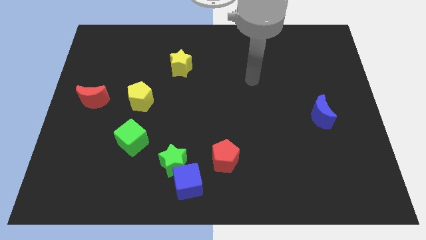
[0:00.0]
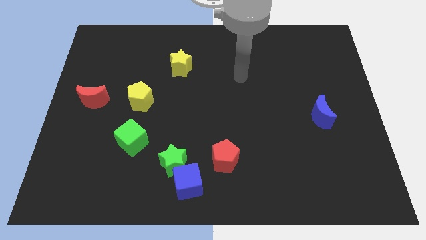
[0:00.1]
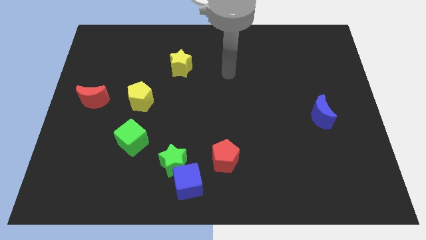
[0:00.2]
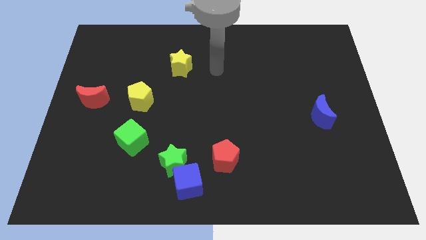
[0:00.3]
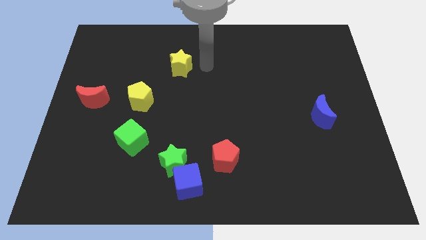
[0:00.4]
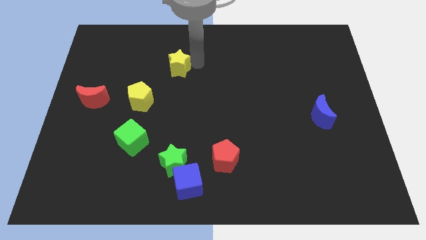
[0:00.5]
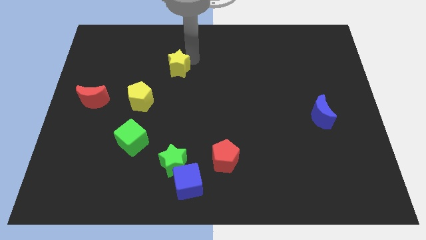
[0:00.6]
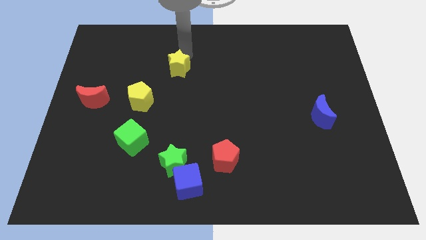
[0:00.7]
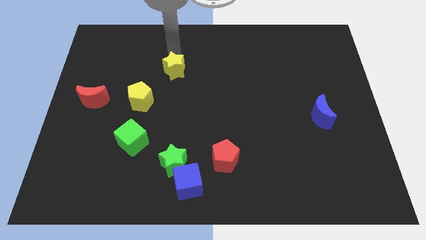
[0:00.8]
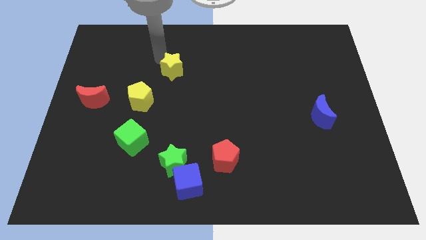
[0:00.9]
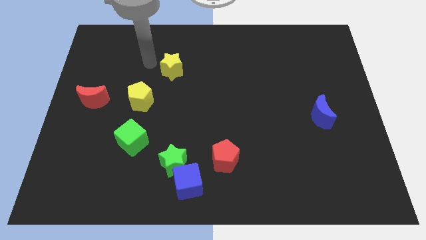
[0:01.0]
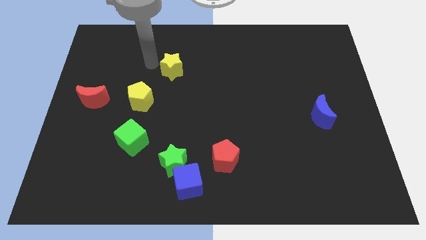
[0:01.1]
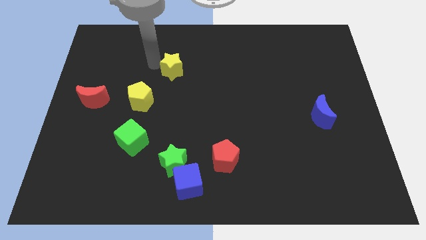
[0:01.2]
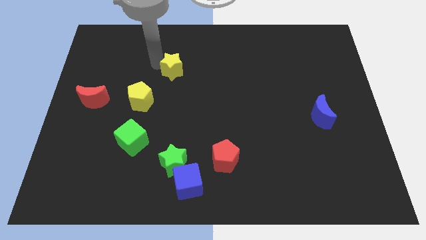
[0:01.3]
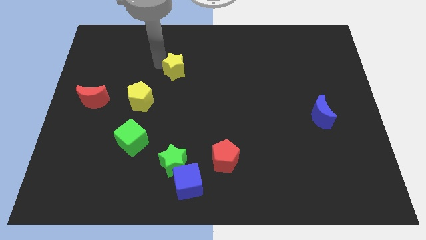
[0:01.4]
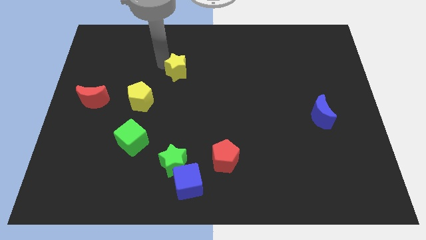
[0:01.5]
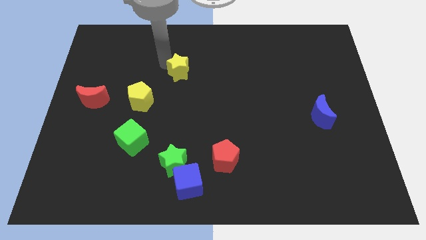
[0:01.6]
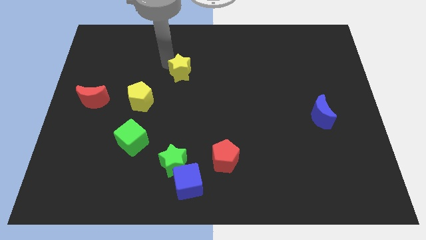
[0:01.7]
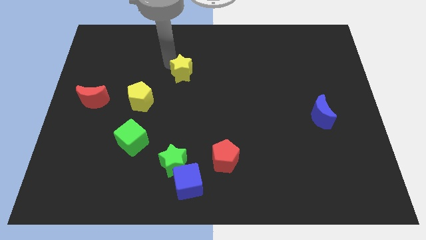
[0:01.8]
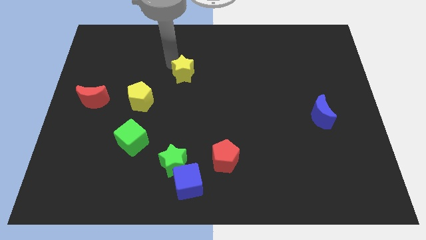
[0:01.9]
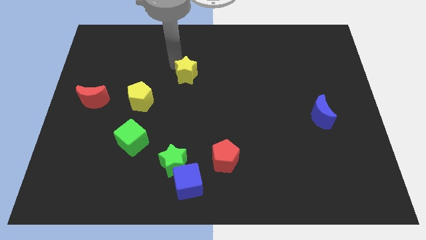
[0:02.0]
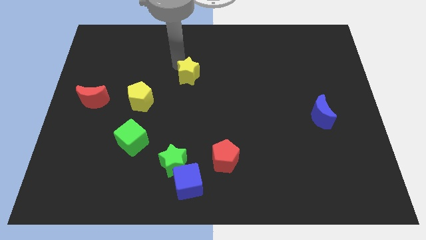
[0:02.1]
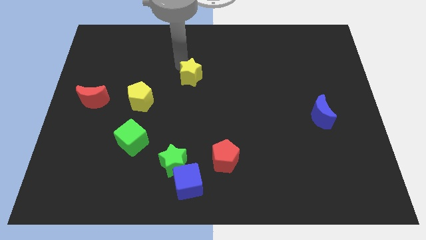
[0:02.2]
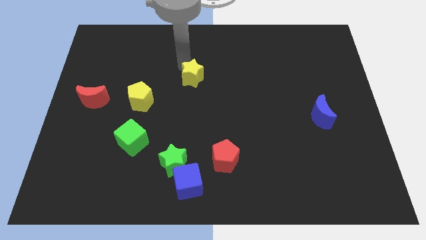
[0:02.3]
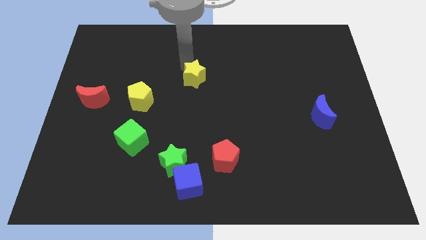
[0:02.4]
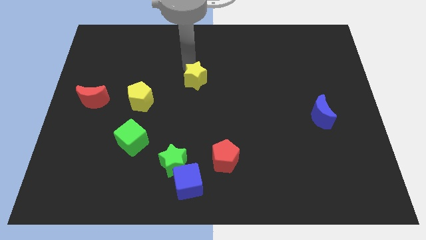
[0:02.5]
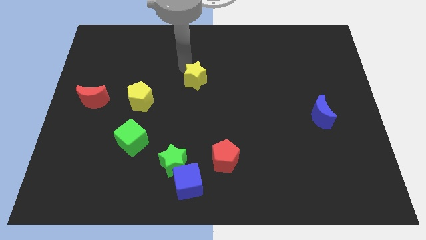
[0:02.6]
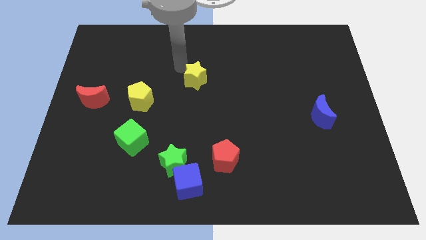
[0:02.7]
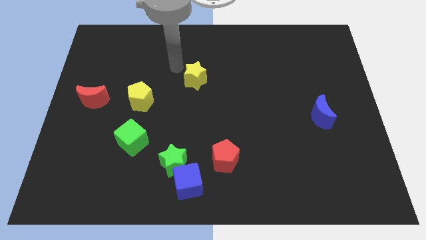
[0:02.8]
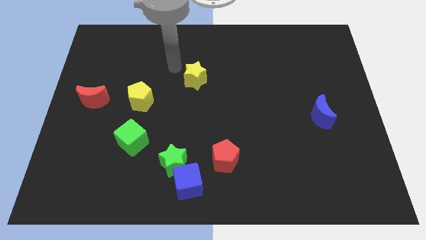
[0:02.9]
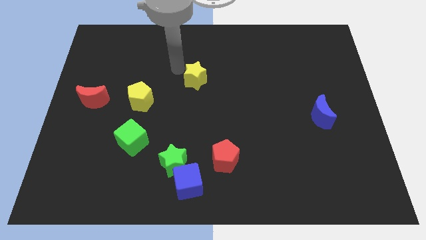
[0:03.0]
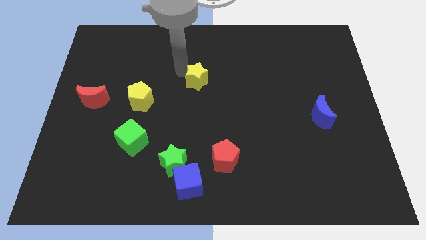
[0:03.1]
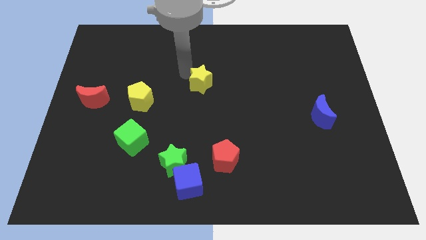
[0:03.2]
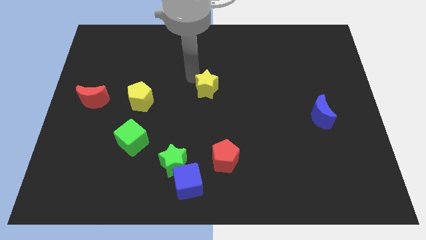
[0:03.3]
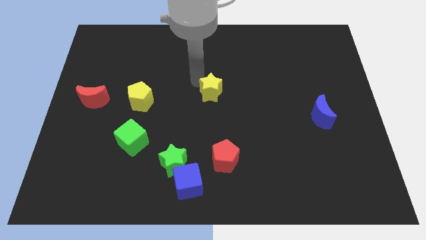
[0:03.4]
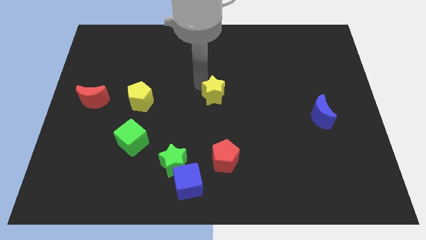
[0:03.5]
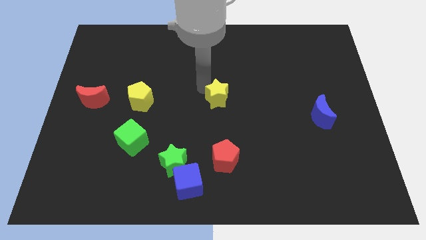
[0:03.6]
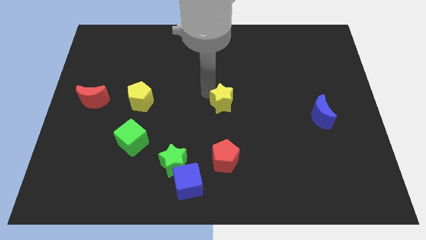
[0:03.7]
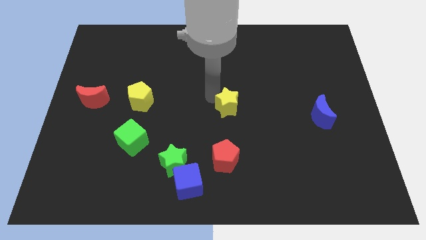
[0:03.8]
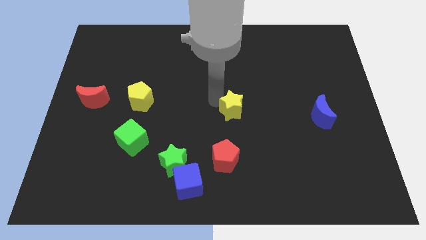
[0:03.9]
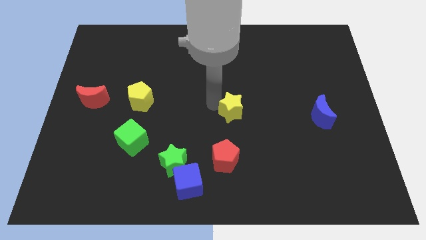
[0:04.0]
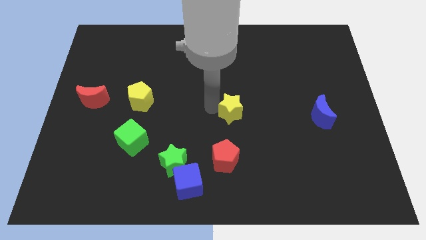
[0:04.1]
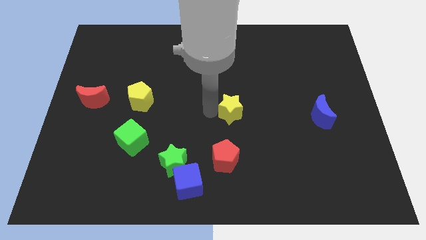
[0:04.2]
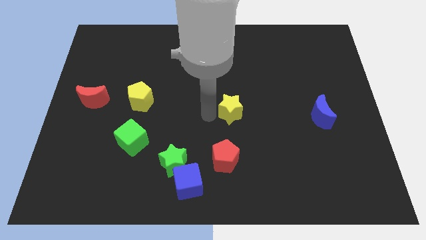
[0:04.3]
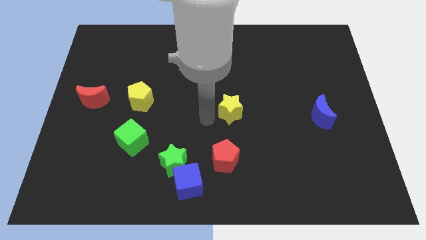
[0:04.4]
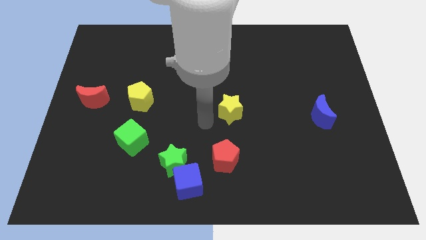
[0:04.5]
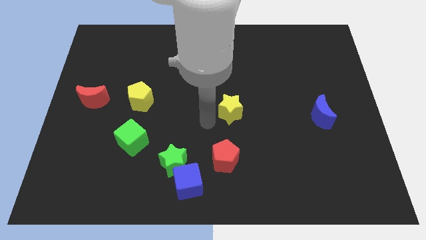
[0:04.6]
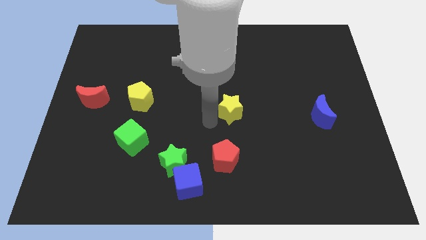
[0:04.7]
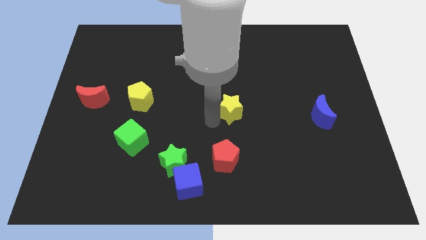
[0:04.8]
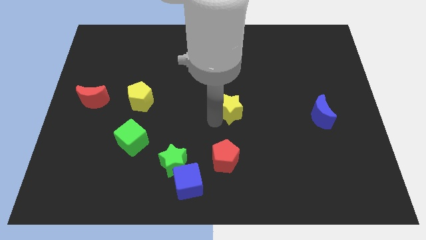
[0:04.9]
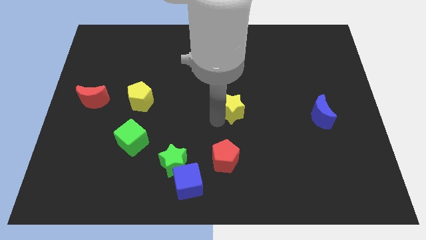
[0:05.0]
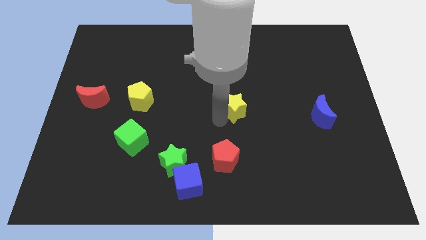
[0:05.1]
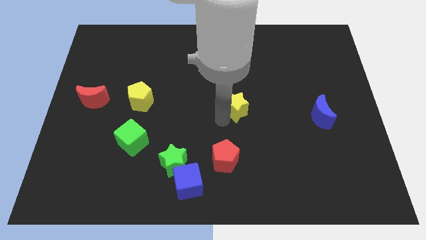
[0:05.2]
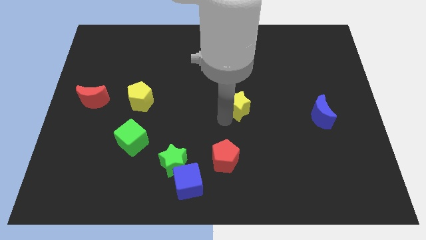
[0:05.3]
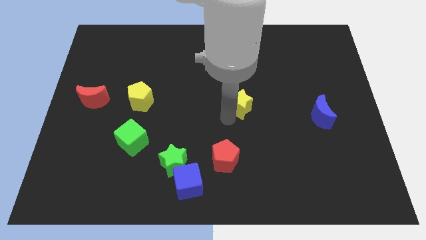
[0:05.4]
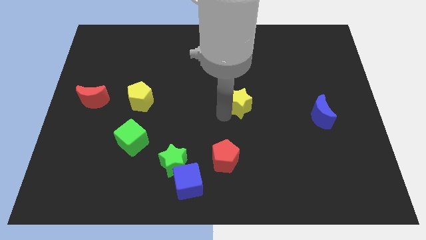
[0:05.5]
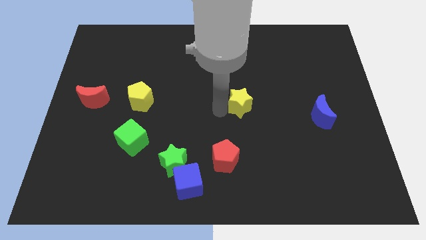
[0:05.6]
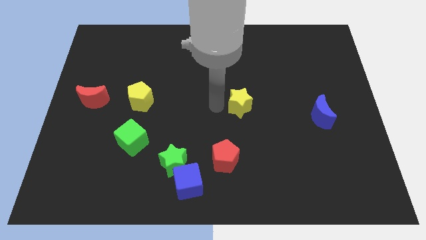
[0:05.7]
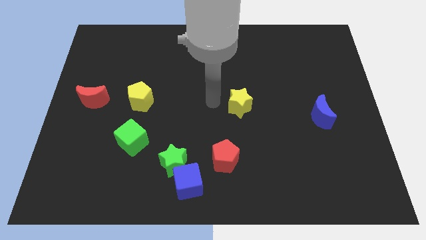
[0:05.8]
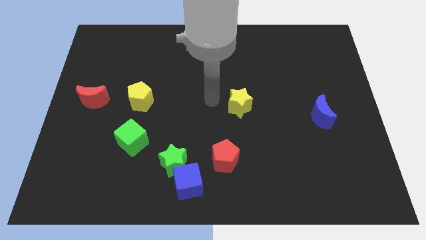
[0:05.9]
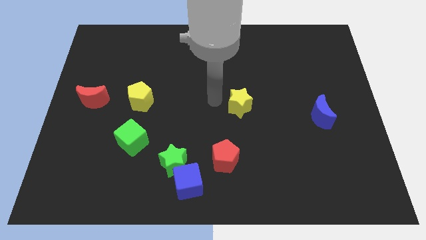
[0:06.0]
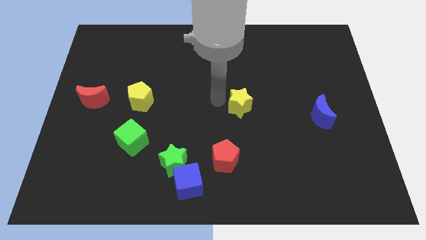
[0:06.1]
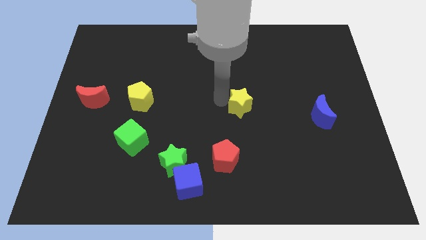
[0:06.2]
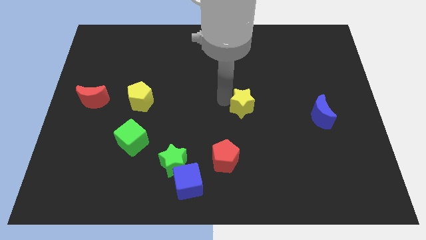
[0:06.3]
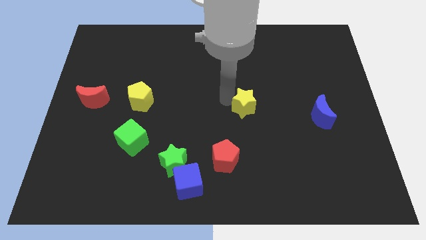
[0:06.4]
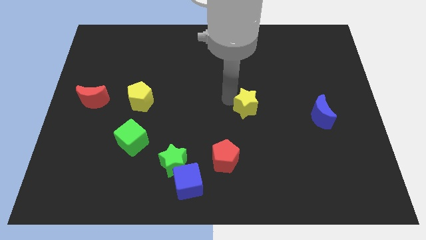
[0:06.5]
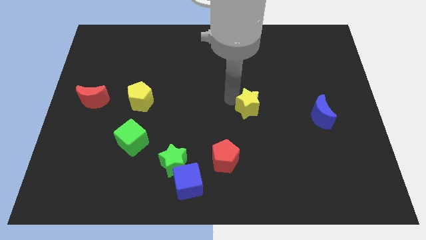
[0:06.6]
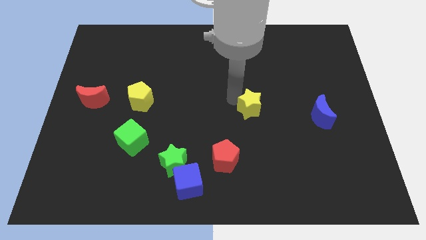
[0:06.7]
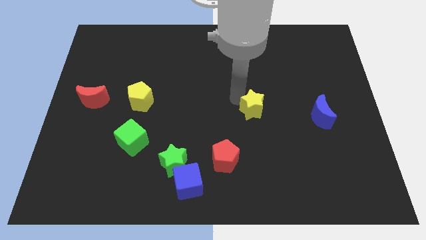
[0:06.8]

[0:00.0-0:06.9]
push the yellow star left of the blue moon
